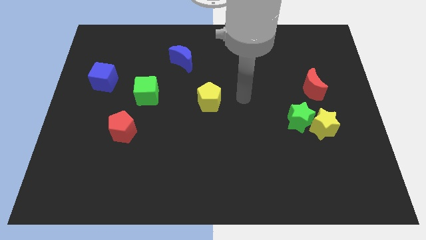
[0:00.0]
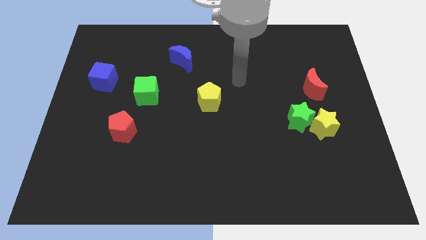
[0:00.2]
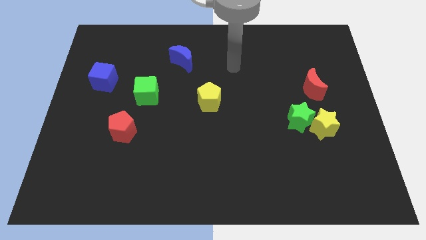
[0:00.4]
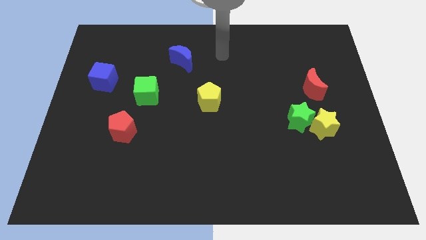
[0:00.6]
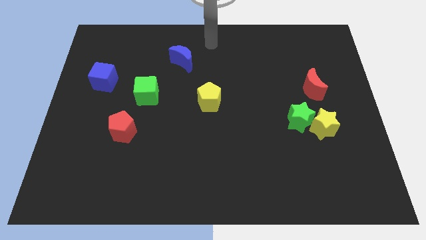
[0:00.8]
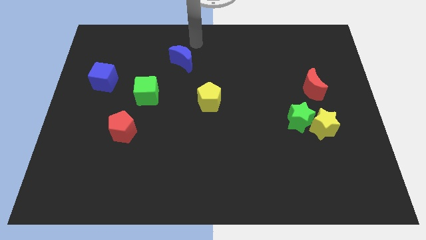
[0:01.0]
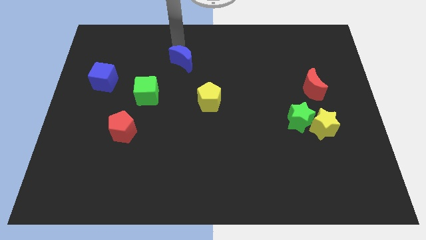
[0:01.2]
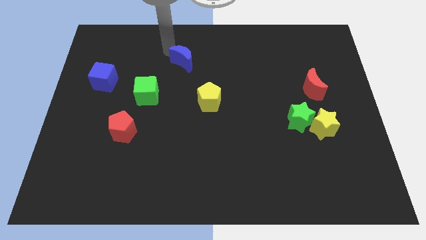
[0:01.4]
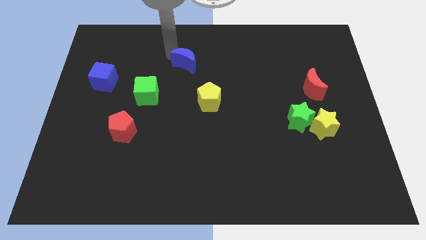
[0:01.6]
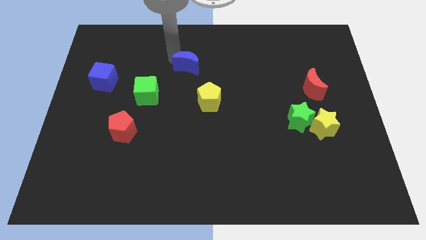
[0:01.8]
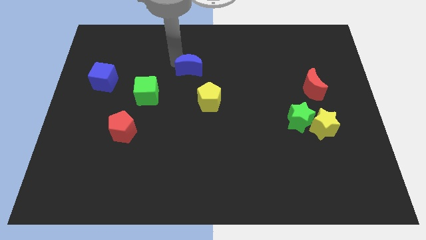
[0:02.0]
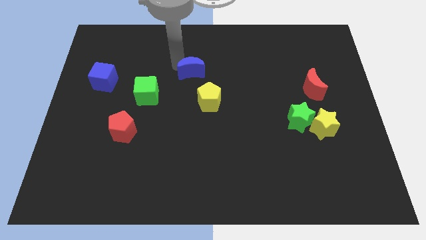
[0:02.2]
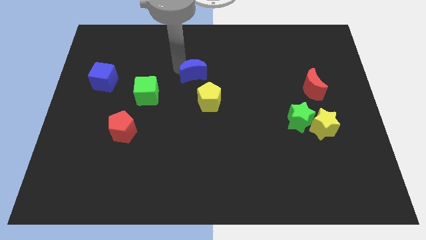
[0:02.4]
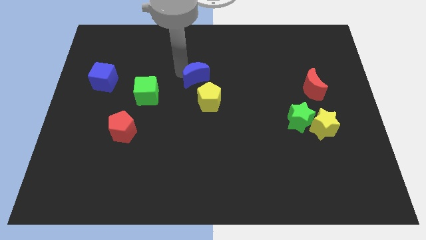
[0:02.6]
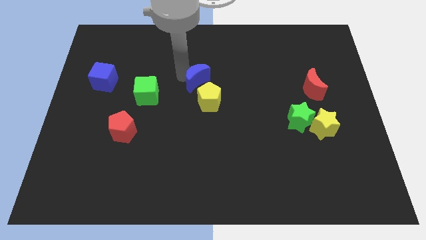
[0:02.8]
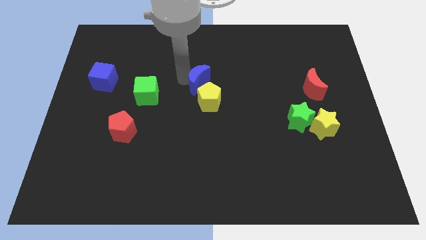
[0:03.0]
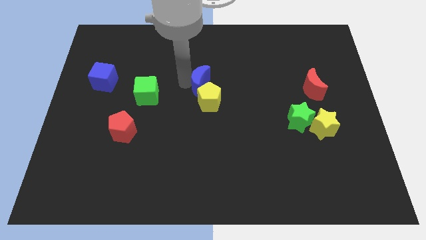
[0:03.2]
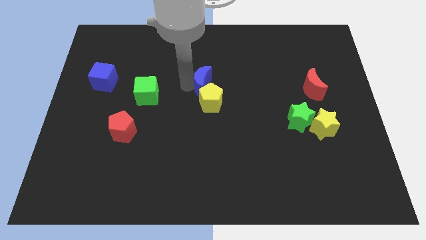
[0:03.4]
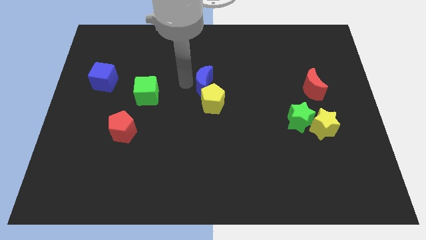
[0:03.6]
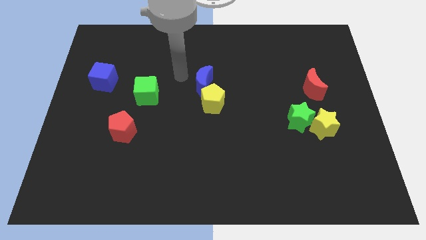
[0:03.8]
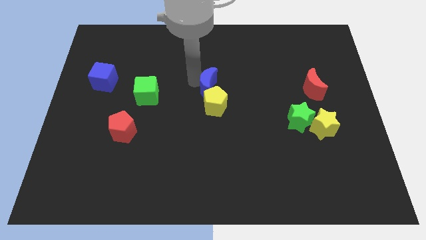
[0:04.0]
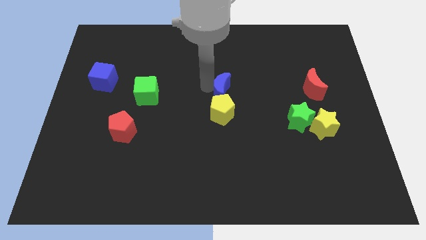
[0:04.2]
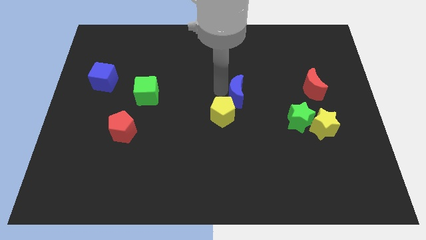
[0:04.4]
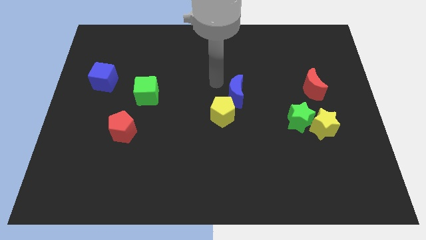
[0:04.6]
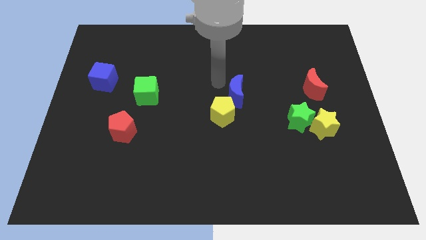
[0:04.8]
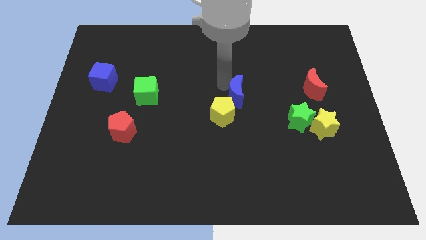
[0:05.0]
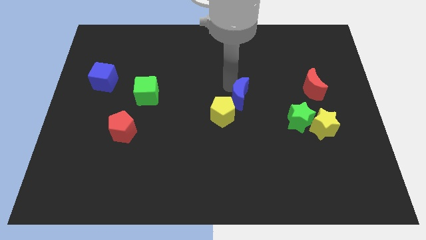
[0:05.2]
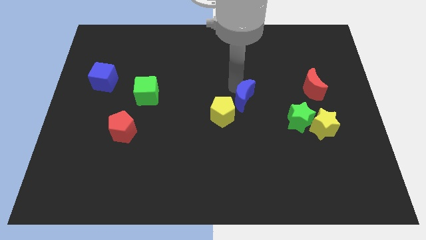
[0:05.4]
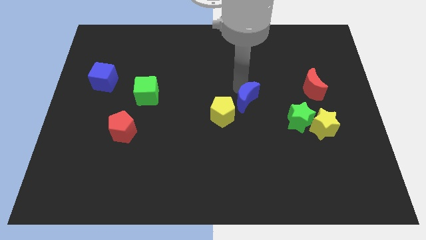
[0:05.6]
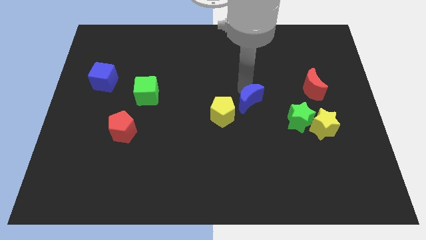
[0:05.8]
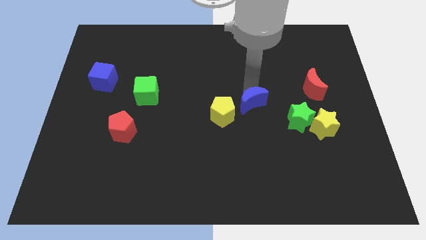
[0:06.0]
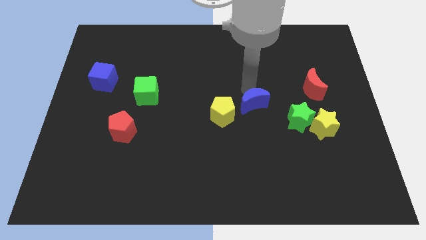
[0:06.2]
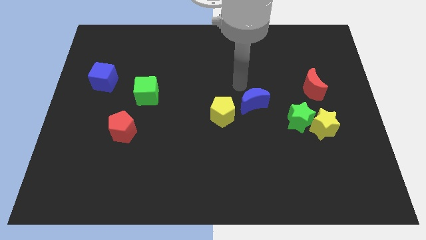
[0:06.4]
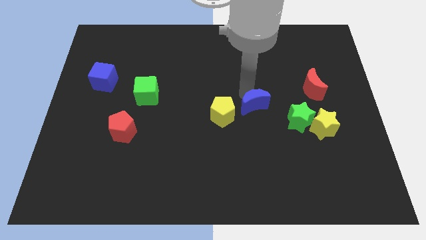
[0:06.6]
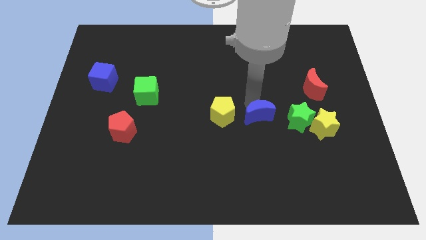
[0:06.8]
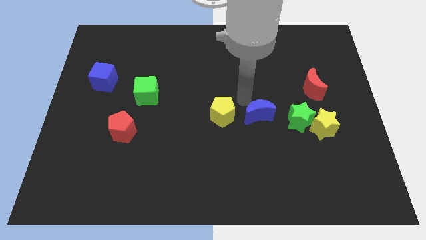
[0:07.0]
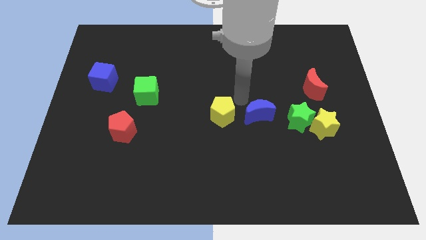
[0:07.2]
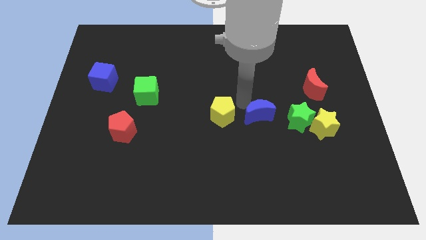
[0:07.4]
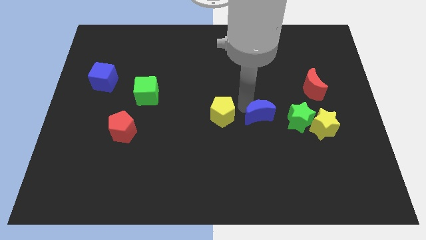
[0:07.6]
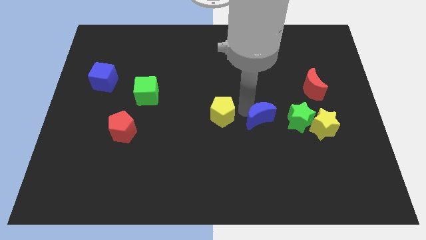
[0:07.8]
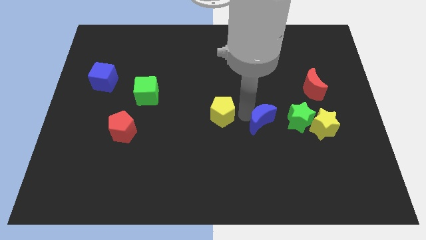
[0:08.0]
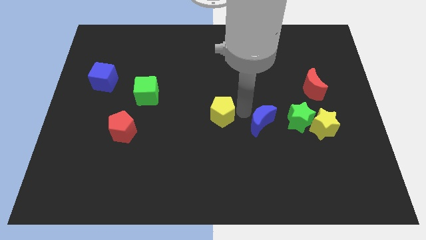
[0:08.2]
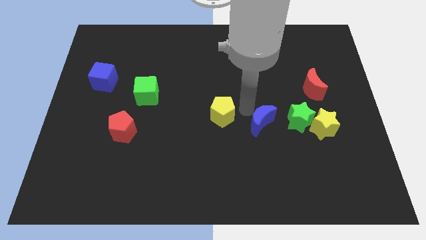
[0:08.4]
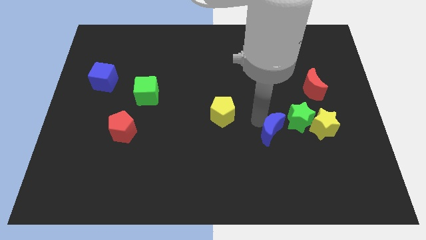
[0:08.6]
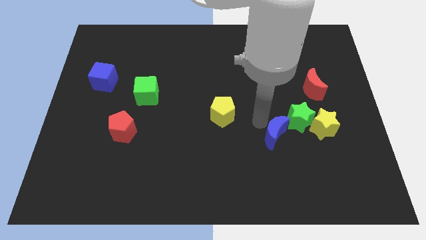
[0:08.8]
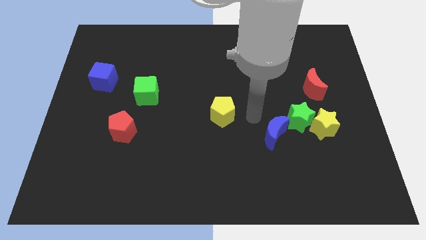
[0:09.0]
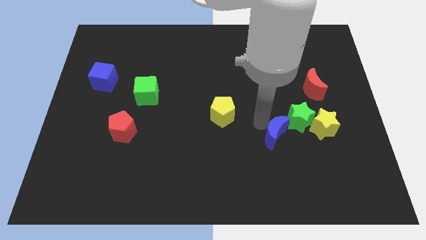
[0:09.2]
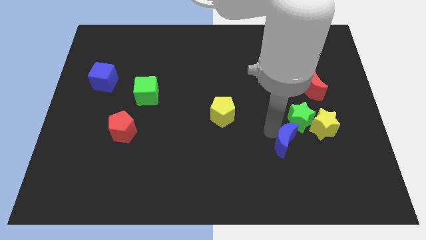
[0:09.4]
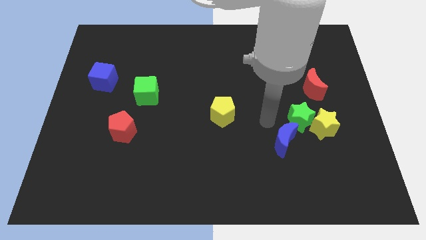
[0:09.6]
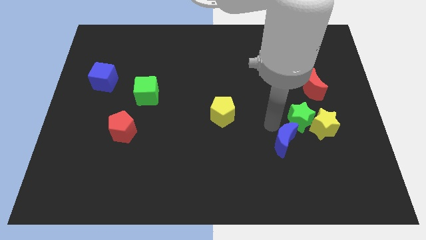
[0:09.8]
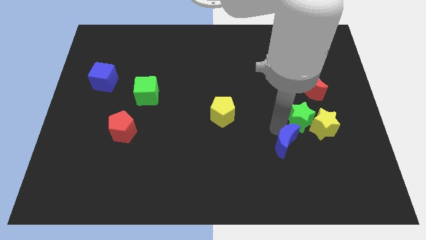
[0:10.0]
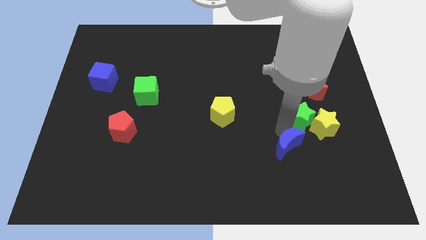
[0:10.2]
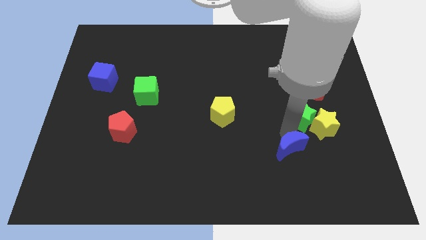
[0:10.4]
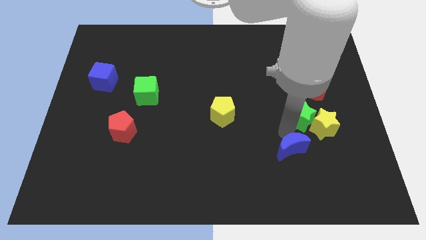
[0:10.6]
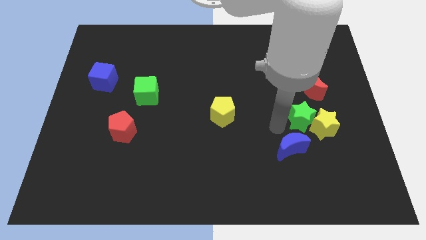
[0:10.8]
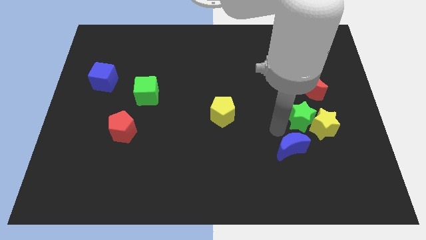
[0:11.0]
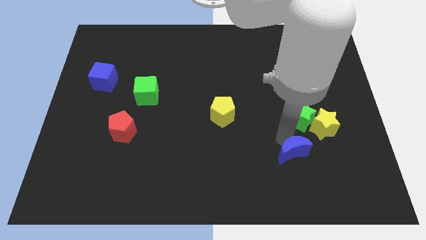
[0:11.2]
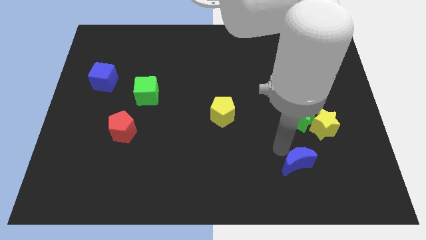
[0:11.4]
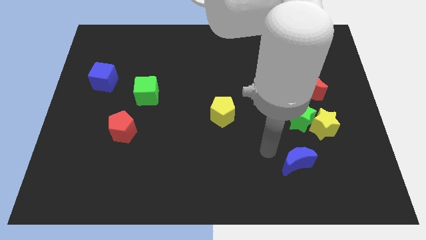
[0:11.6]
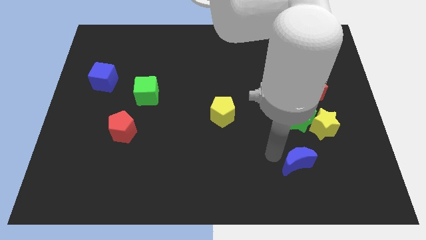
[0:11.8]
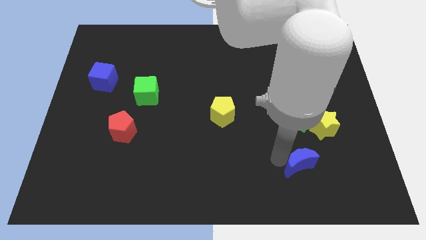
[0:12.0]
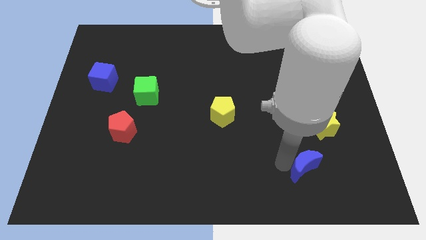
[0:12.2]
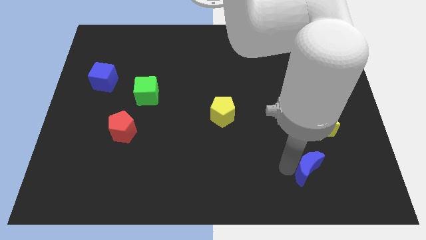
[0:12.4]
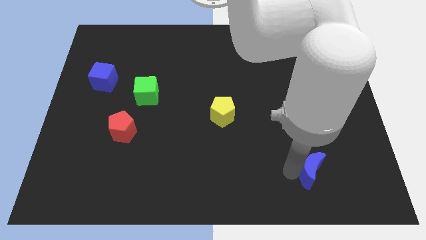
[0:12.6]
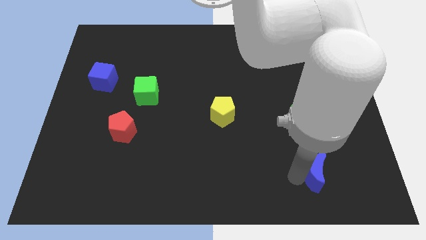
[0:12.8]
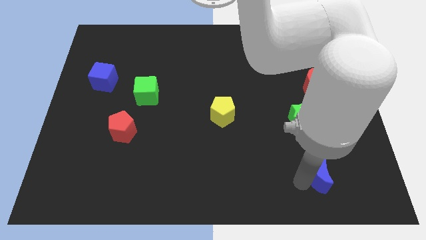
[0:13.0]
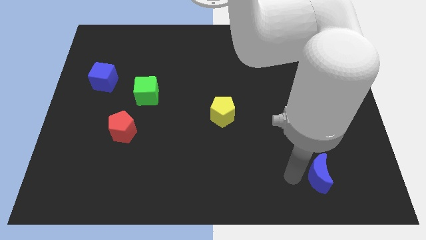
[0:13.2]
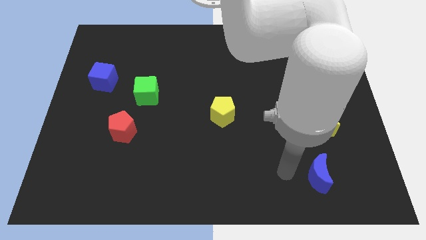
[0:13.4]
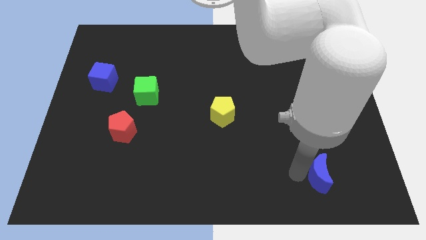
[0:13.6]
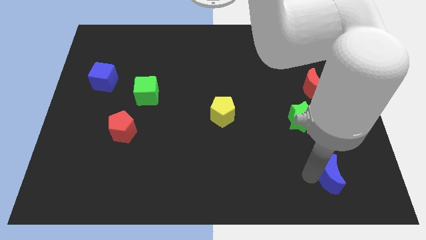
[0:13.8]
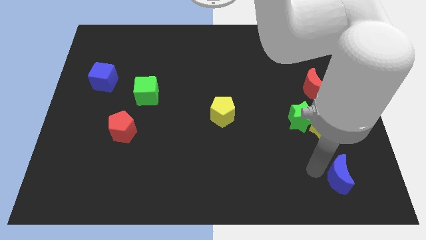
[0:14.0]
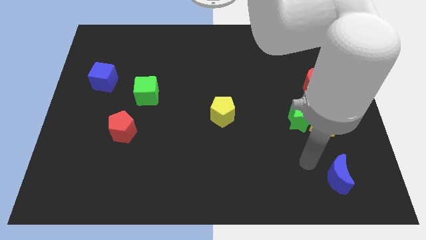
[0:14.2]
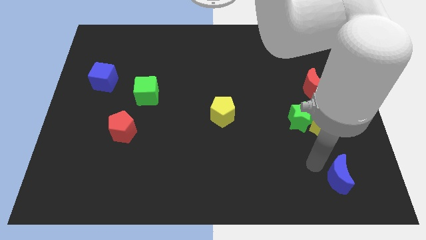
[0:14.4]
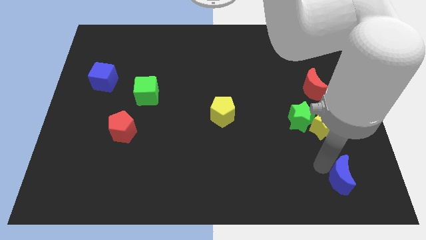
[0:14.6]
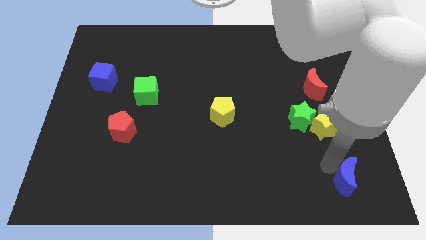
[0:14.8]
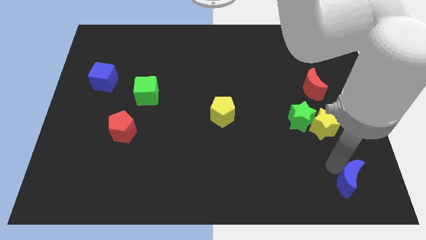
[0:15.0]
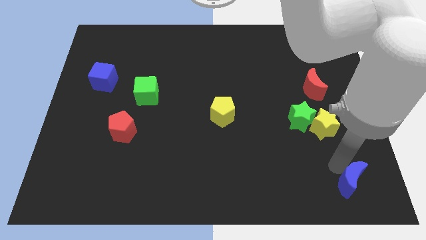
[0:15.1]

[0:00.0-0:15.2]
slide the blue moon to the bottom right corner
